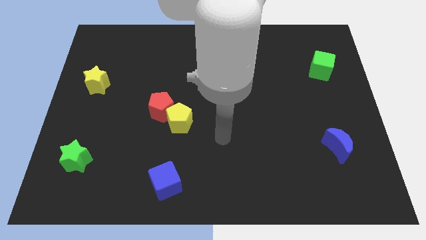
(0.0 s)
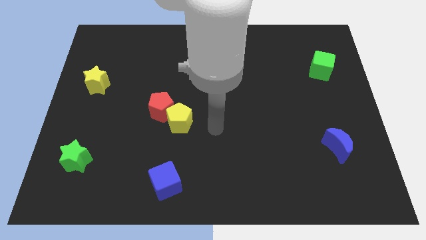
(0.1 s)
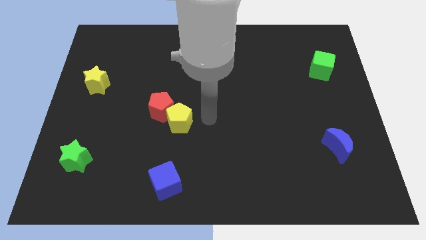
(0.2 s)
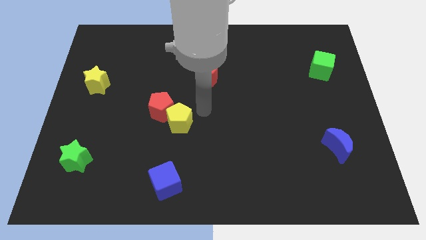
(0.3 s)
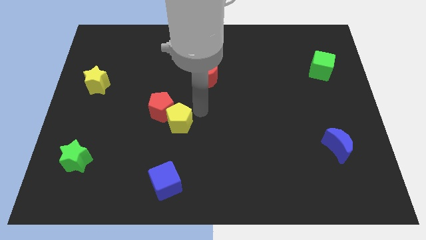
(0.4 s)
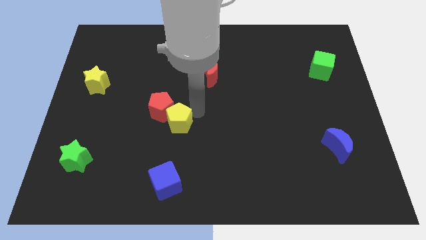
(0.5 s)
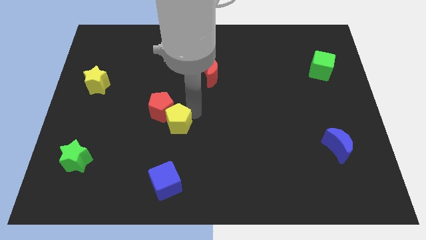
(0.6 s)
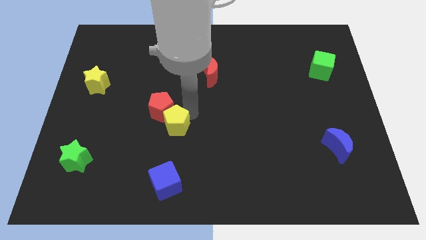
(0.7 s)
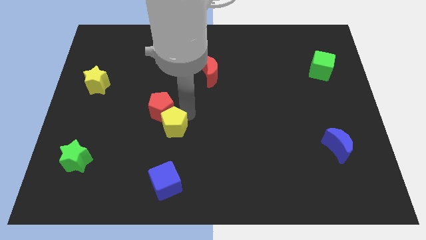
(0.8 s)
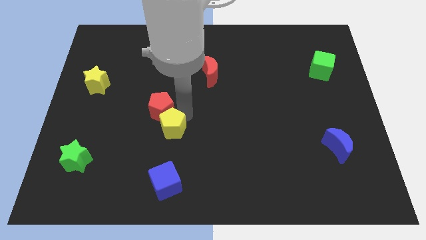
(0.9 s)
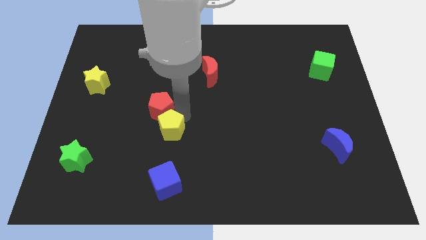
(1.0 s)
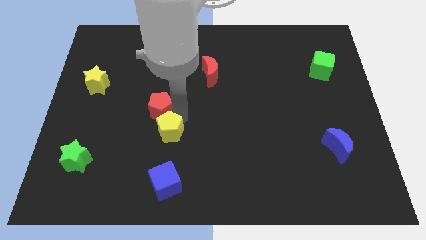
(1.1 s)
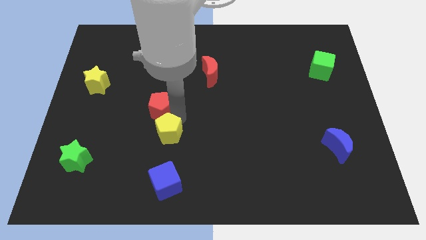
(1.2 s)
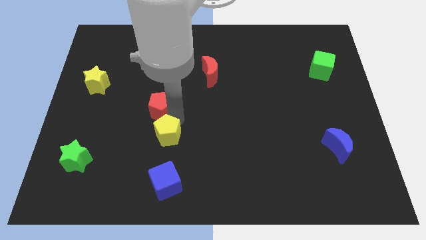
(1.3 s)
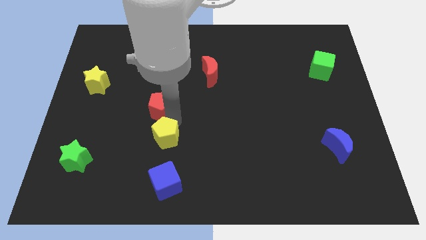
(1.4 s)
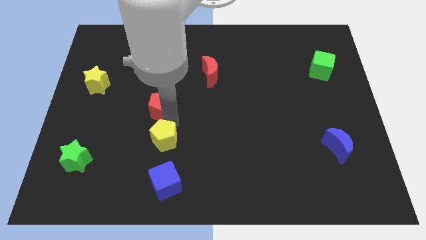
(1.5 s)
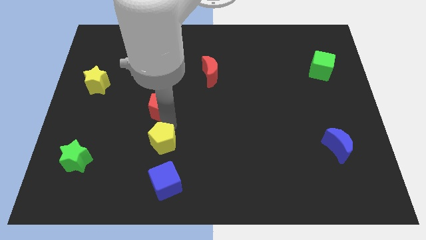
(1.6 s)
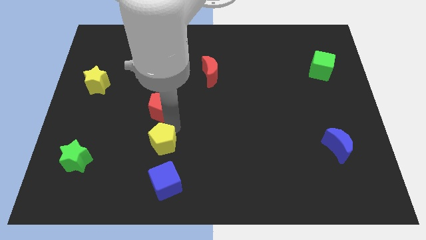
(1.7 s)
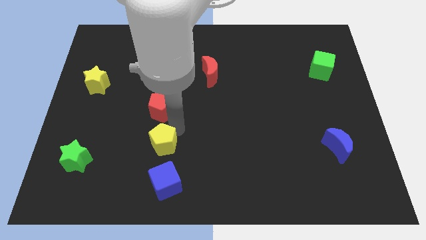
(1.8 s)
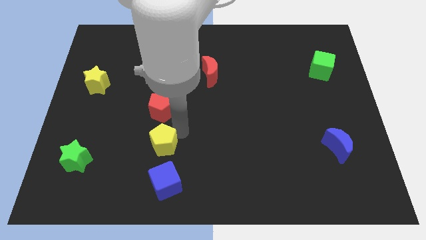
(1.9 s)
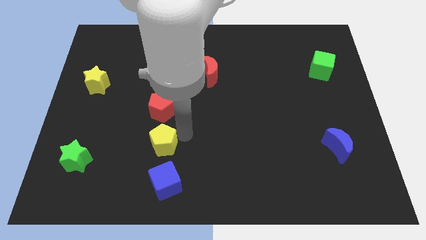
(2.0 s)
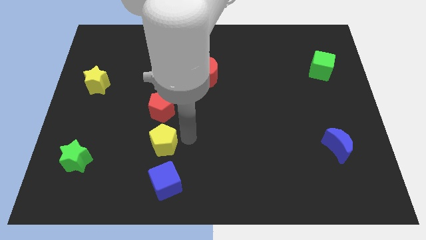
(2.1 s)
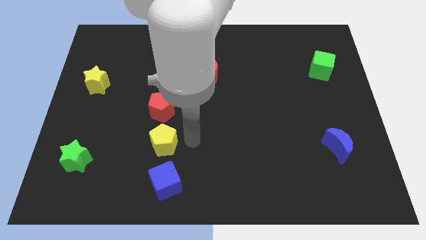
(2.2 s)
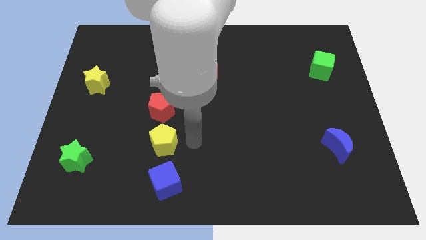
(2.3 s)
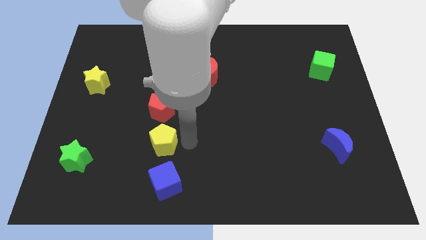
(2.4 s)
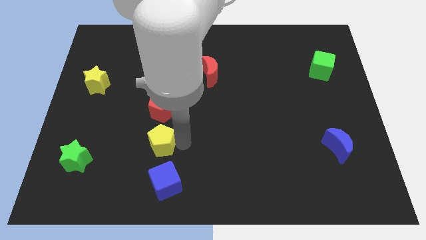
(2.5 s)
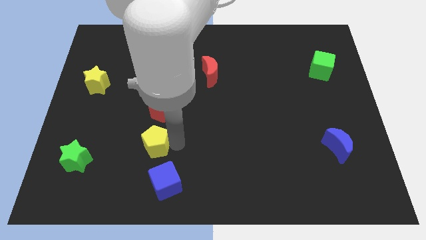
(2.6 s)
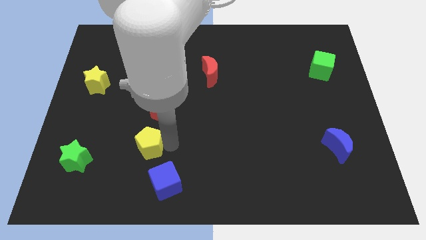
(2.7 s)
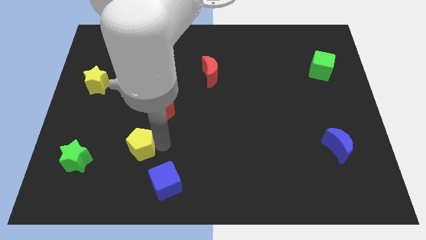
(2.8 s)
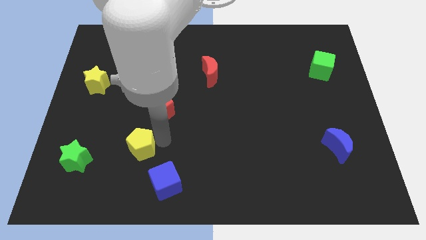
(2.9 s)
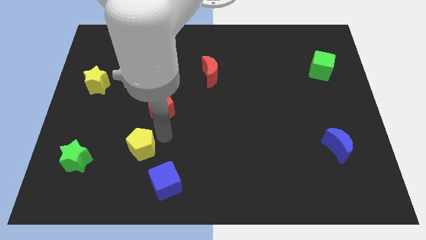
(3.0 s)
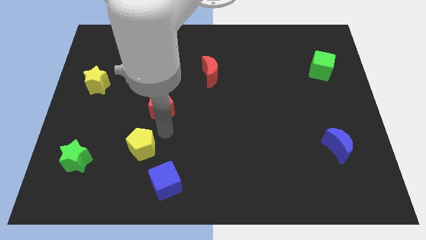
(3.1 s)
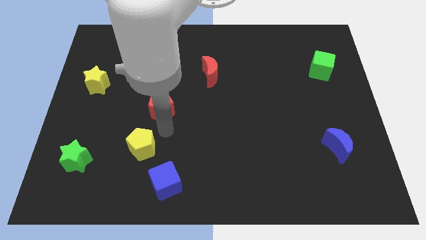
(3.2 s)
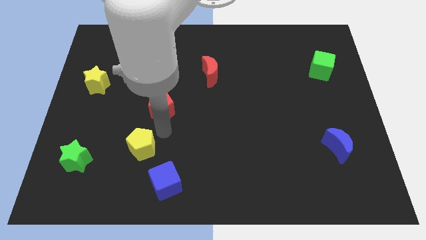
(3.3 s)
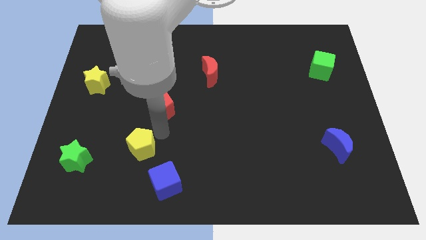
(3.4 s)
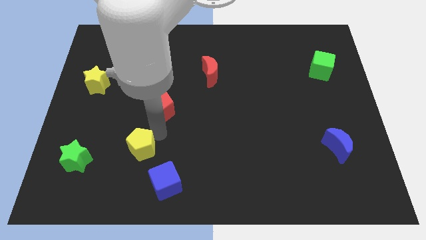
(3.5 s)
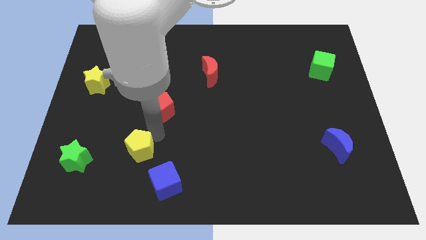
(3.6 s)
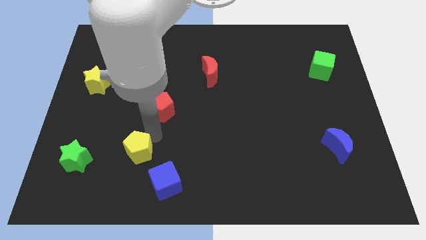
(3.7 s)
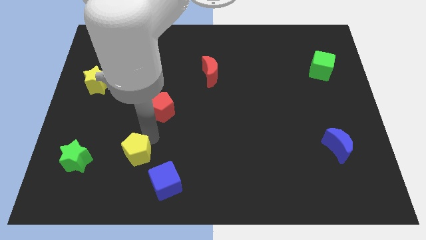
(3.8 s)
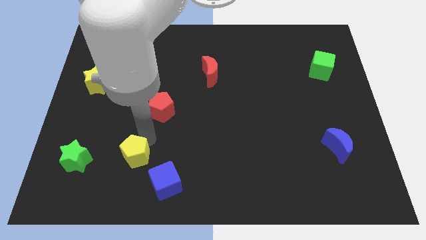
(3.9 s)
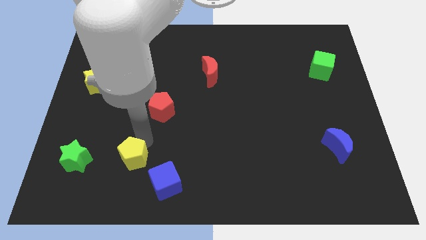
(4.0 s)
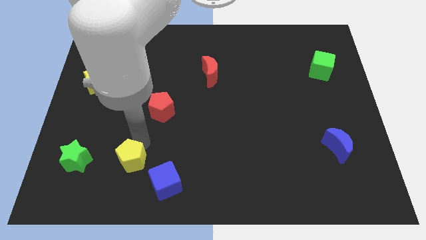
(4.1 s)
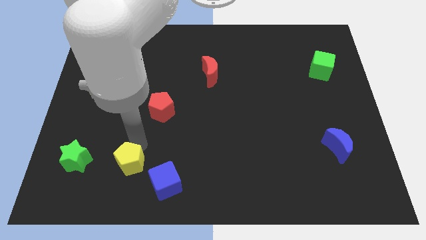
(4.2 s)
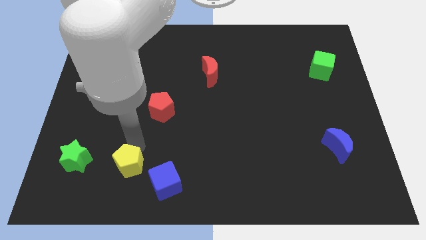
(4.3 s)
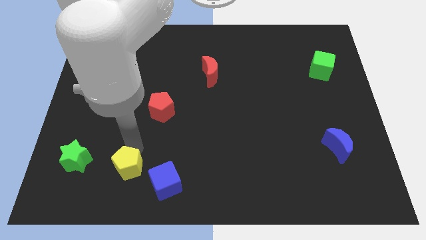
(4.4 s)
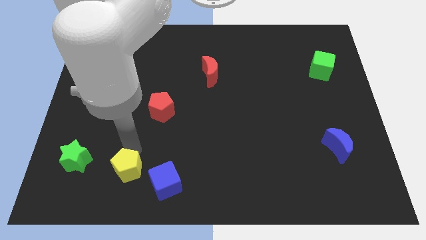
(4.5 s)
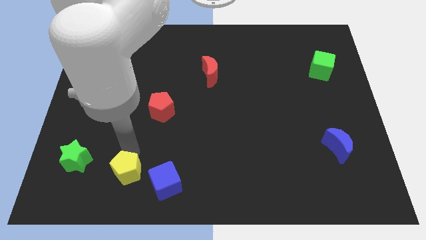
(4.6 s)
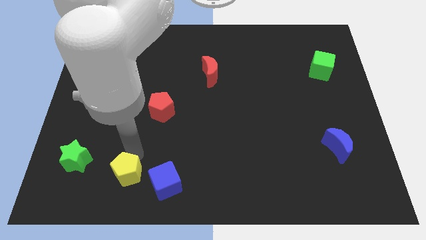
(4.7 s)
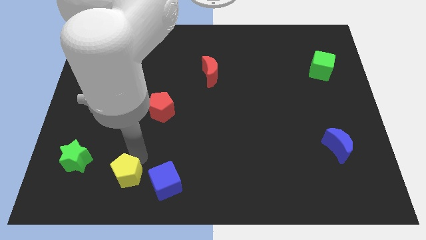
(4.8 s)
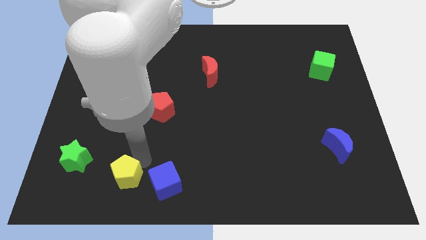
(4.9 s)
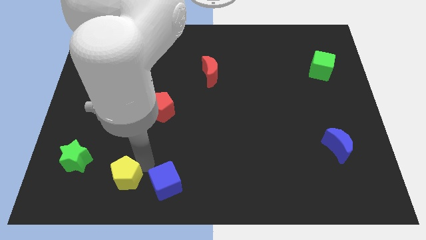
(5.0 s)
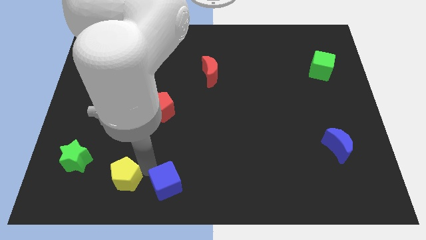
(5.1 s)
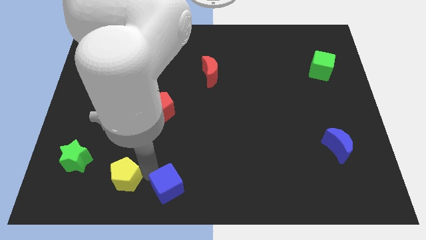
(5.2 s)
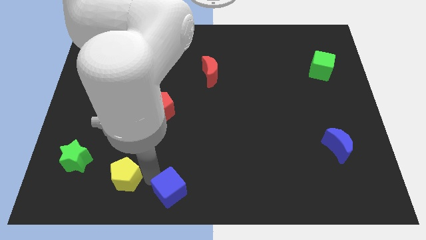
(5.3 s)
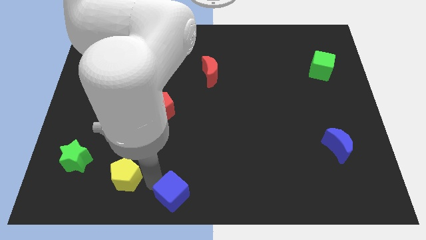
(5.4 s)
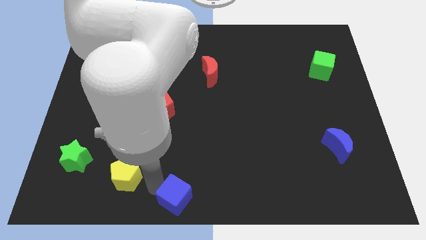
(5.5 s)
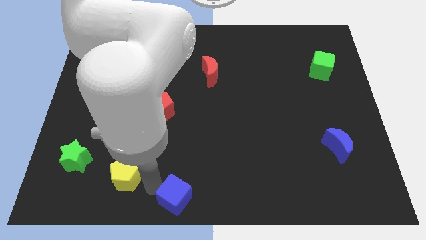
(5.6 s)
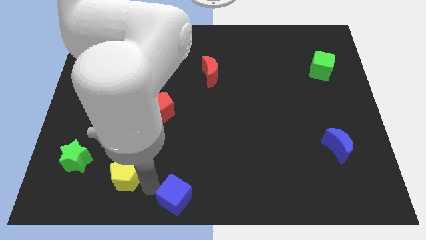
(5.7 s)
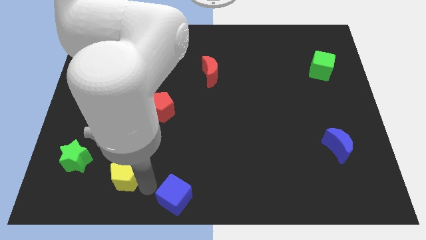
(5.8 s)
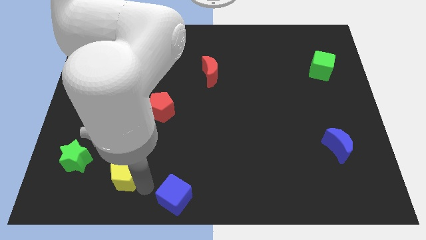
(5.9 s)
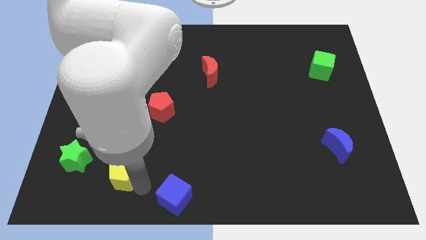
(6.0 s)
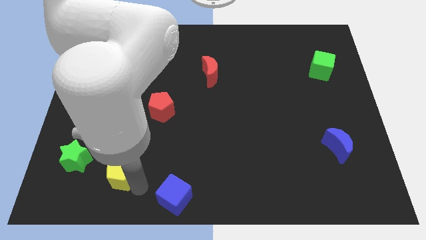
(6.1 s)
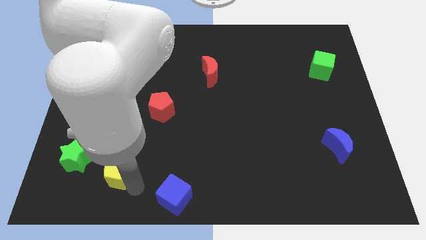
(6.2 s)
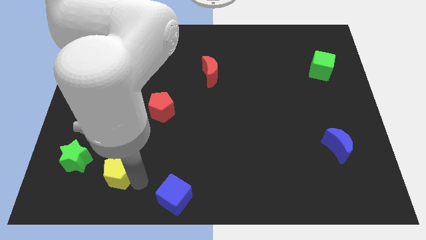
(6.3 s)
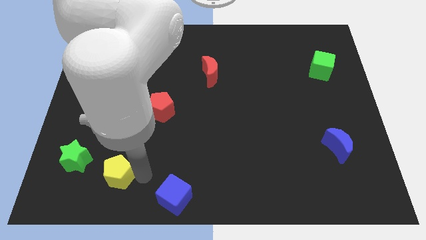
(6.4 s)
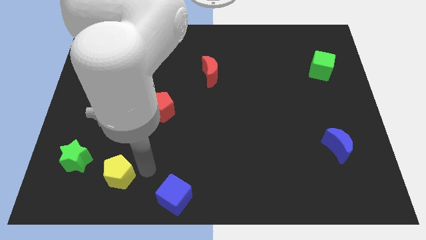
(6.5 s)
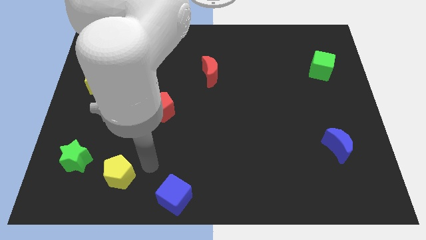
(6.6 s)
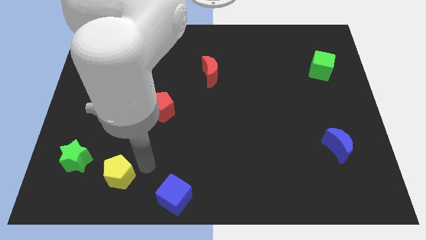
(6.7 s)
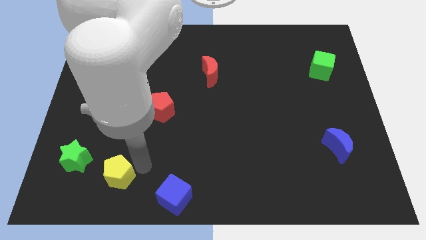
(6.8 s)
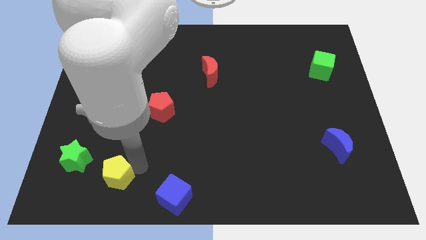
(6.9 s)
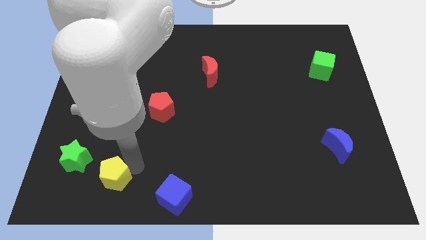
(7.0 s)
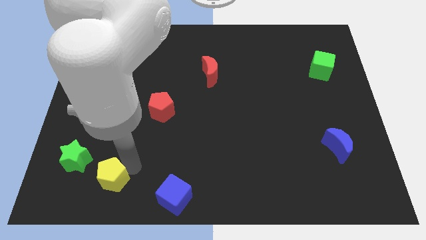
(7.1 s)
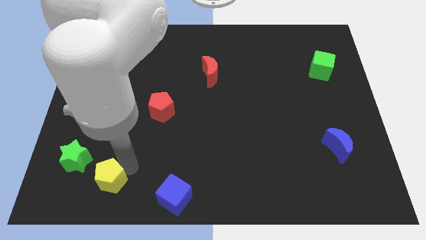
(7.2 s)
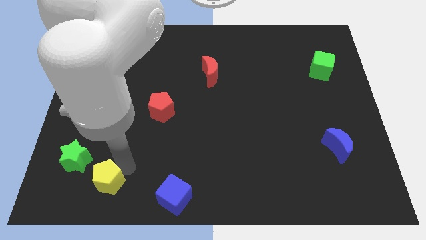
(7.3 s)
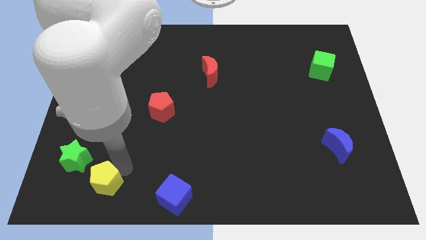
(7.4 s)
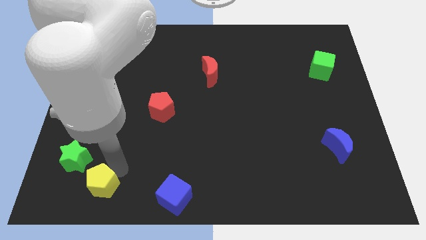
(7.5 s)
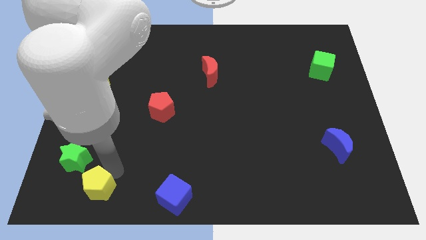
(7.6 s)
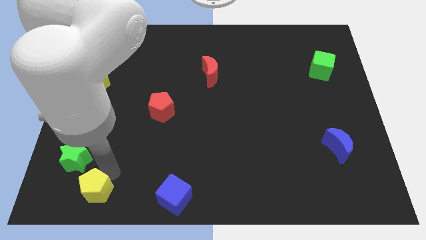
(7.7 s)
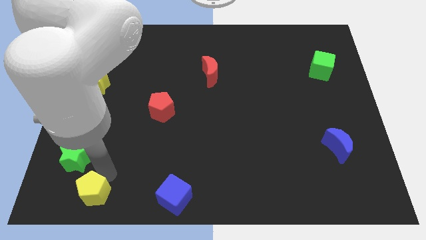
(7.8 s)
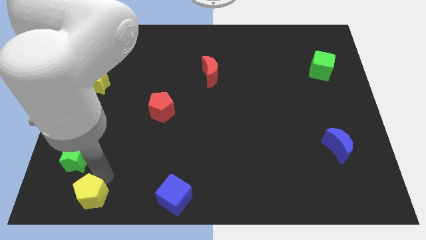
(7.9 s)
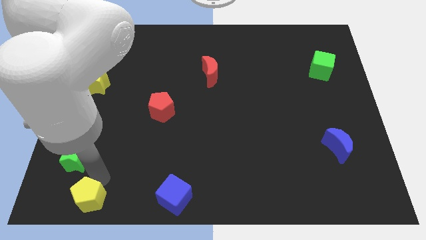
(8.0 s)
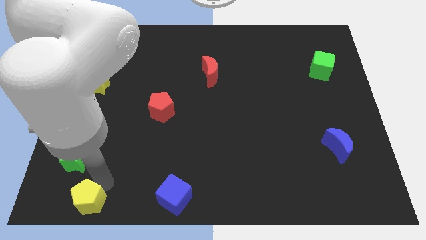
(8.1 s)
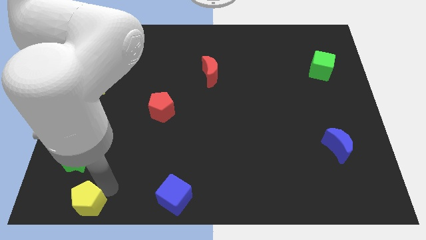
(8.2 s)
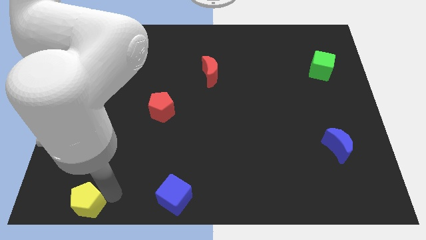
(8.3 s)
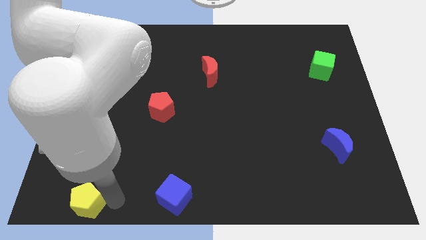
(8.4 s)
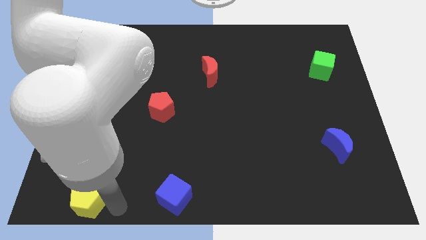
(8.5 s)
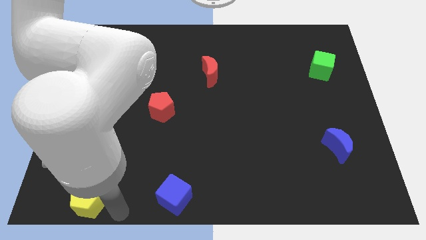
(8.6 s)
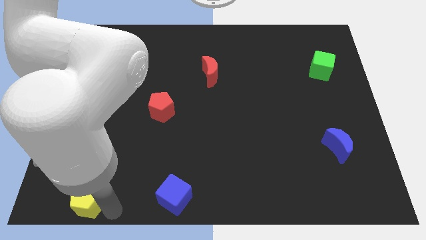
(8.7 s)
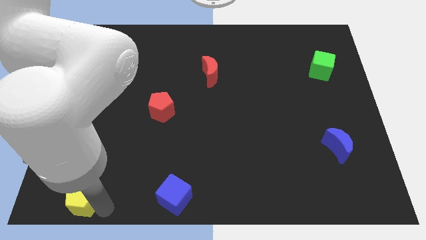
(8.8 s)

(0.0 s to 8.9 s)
push the yellow pentagon to the bottom left
